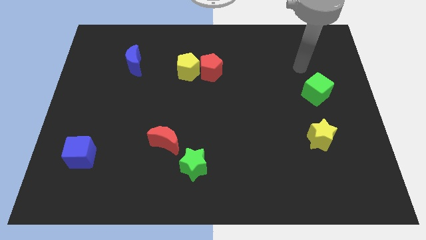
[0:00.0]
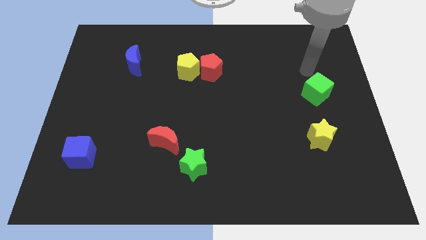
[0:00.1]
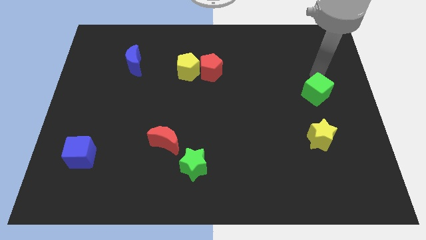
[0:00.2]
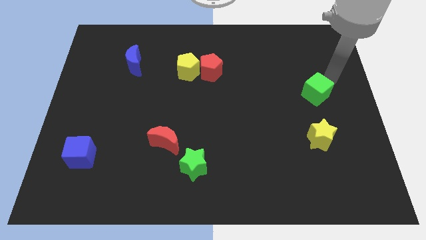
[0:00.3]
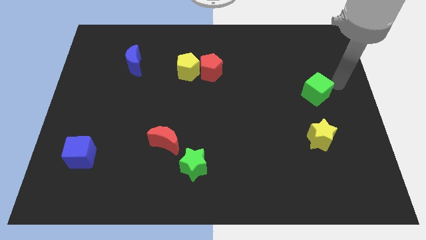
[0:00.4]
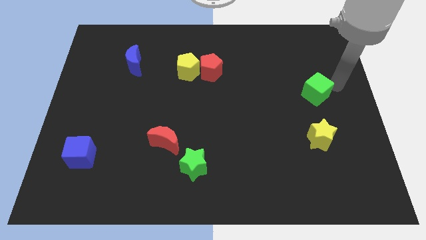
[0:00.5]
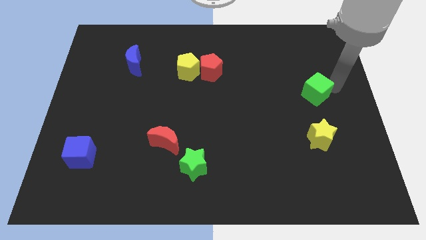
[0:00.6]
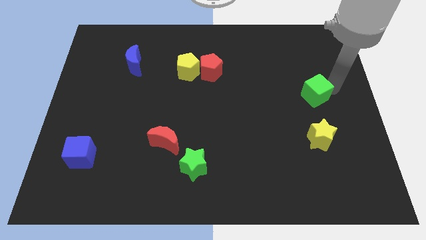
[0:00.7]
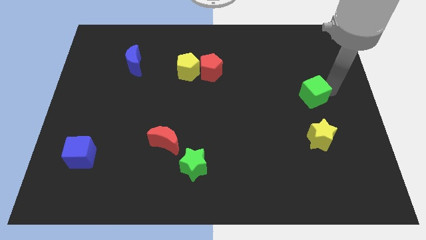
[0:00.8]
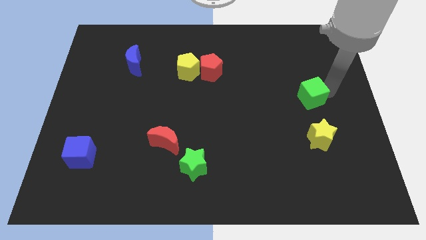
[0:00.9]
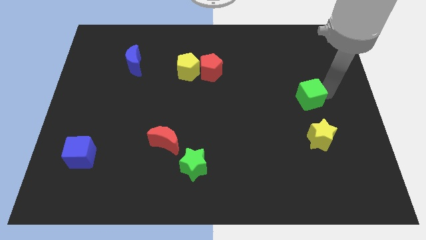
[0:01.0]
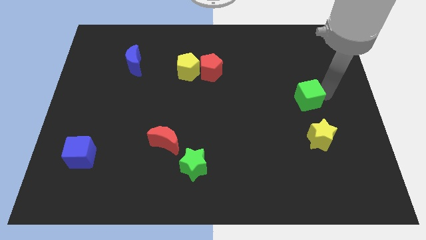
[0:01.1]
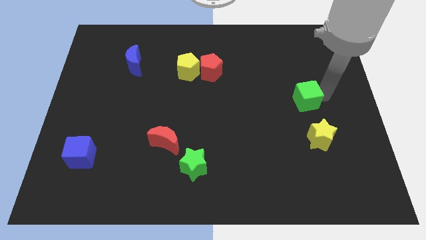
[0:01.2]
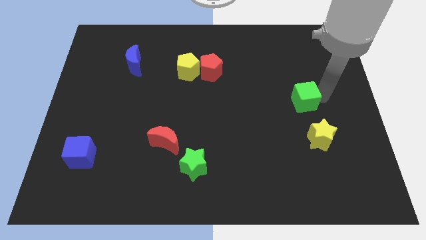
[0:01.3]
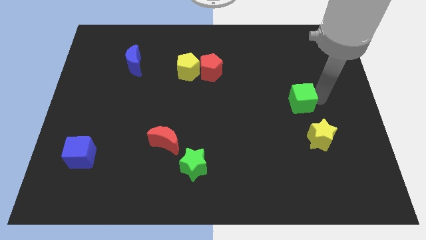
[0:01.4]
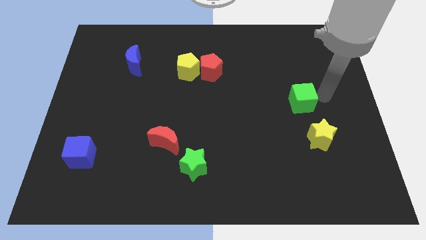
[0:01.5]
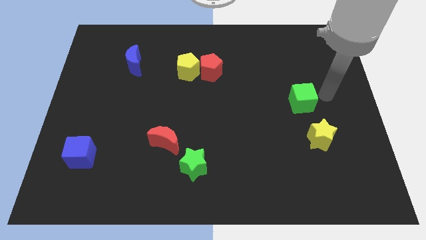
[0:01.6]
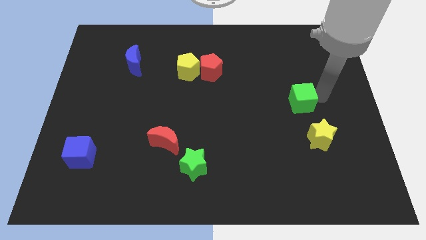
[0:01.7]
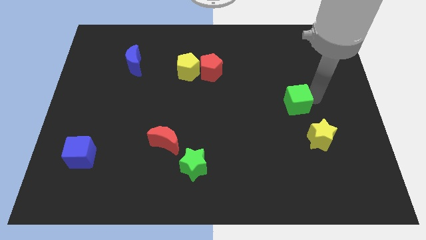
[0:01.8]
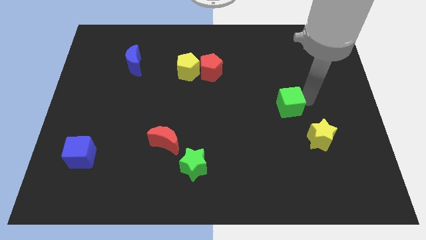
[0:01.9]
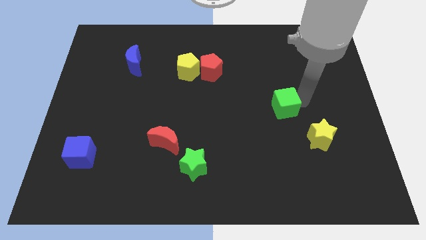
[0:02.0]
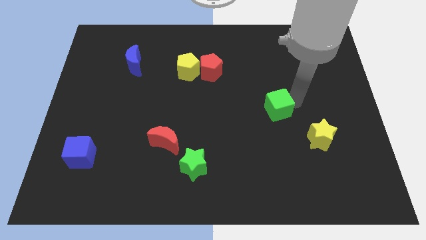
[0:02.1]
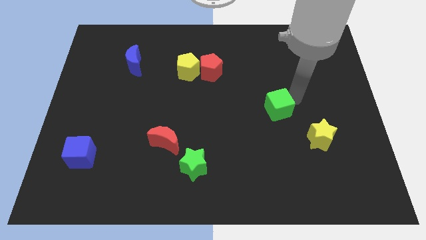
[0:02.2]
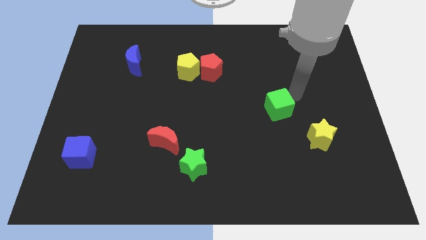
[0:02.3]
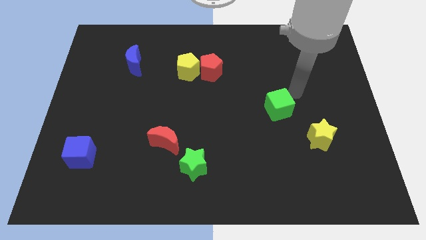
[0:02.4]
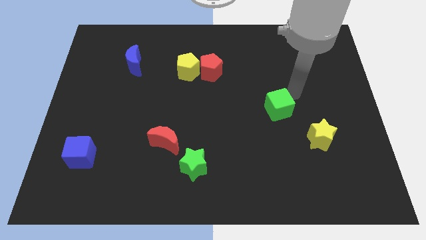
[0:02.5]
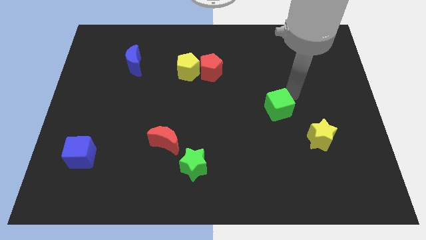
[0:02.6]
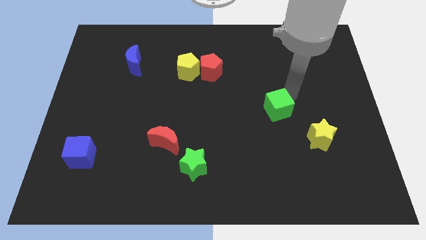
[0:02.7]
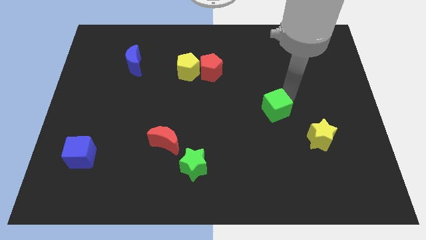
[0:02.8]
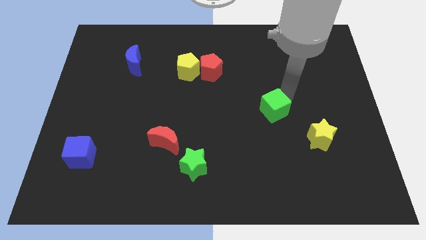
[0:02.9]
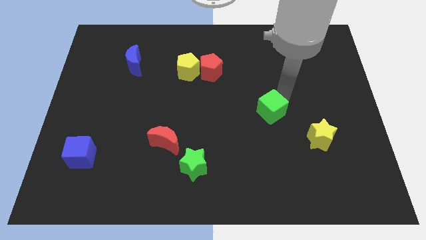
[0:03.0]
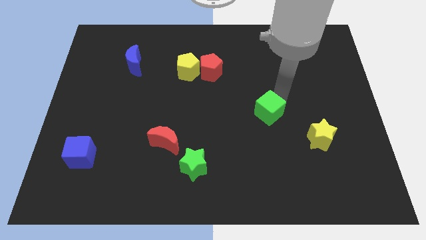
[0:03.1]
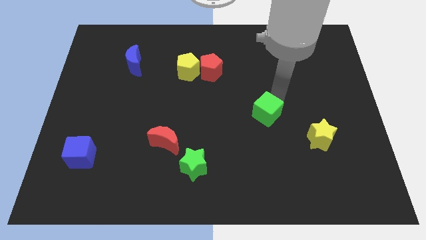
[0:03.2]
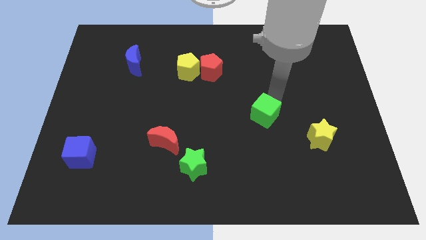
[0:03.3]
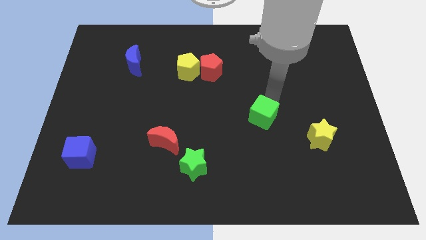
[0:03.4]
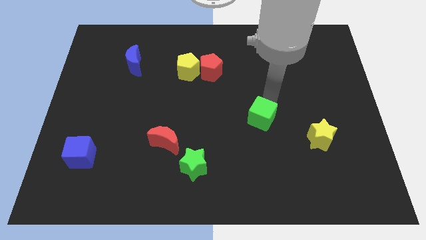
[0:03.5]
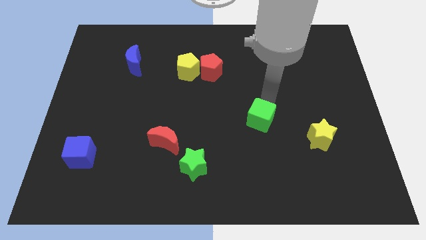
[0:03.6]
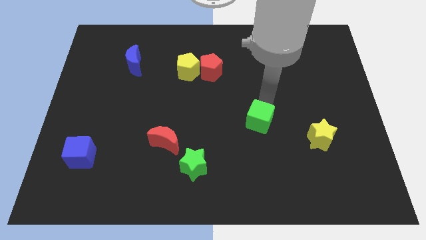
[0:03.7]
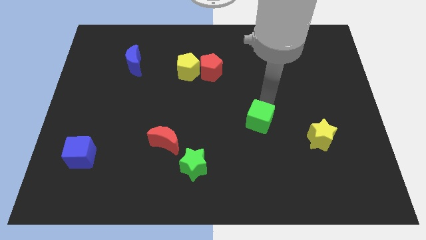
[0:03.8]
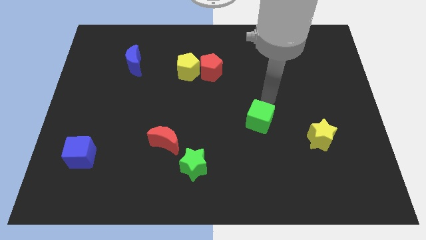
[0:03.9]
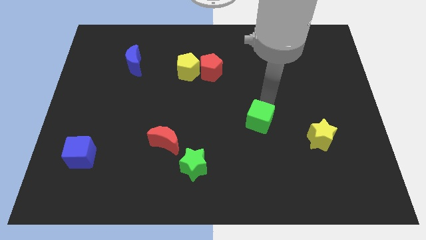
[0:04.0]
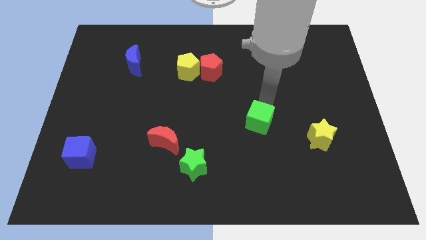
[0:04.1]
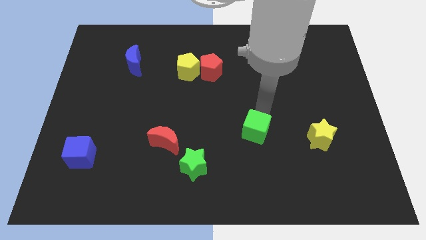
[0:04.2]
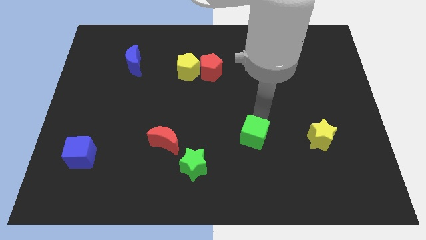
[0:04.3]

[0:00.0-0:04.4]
push the green cube down and then left

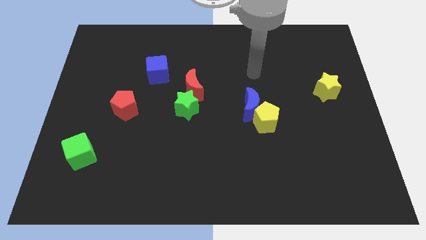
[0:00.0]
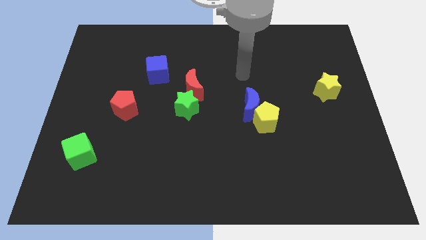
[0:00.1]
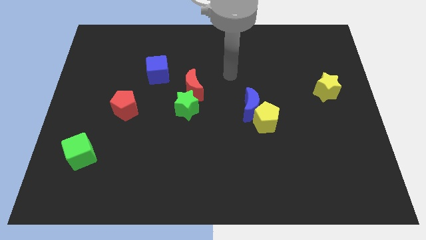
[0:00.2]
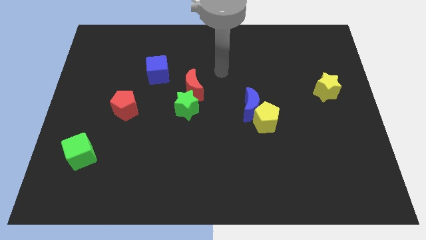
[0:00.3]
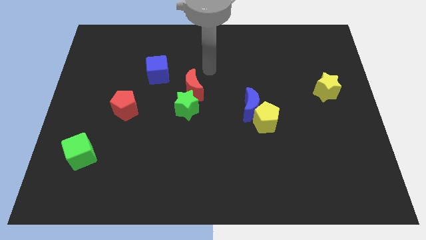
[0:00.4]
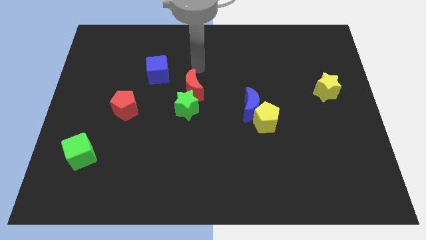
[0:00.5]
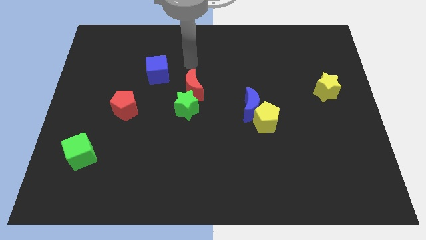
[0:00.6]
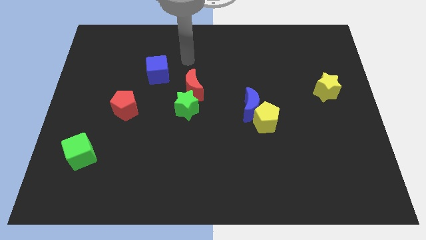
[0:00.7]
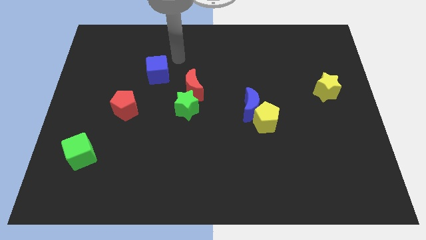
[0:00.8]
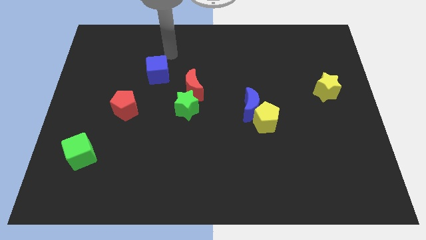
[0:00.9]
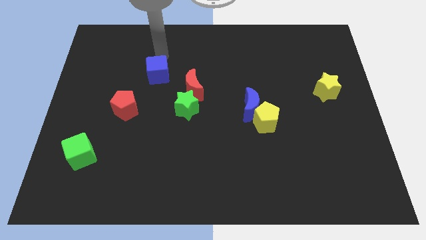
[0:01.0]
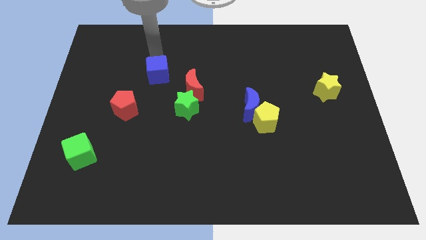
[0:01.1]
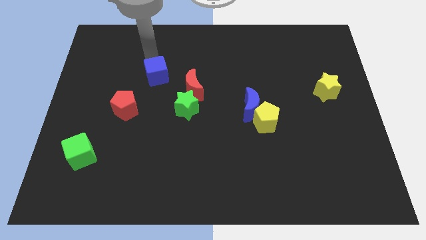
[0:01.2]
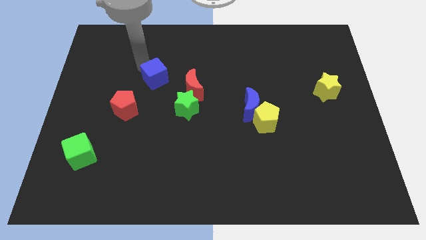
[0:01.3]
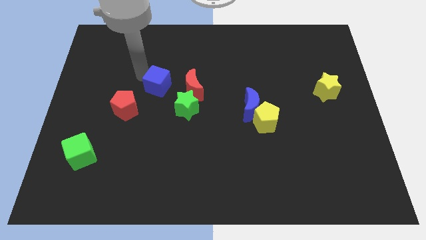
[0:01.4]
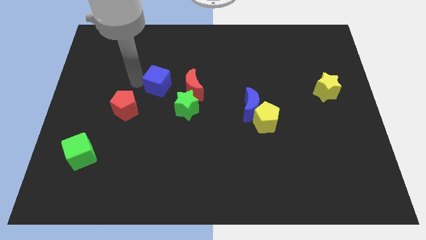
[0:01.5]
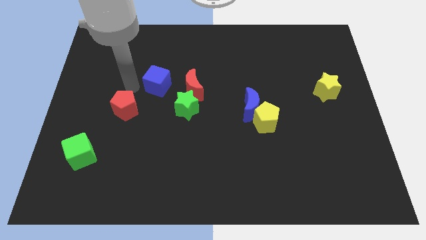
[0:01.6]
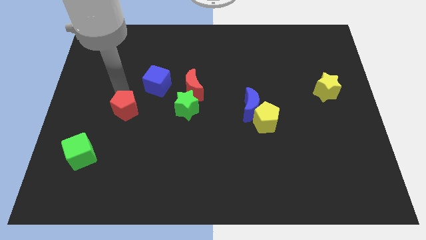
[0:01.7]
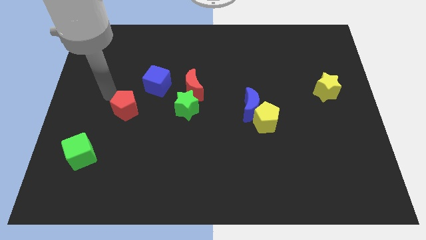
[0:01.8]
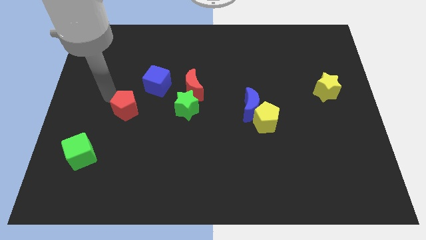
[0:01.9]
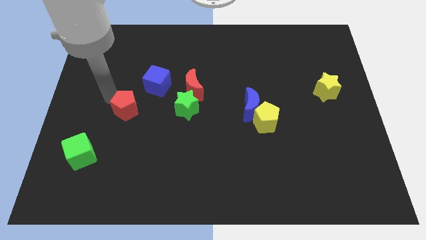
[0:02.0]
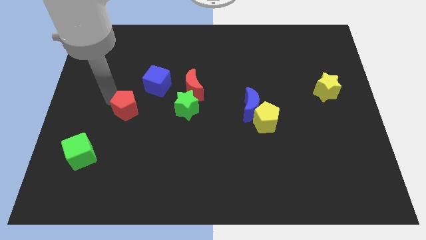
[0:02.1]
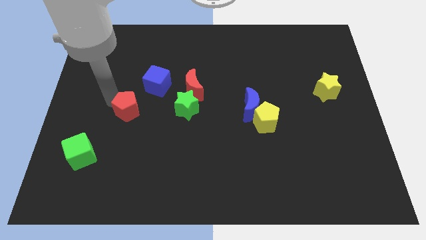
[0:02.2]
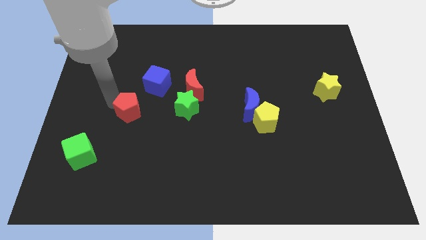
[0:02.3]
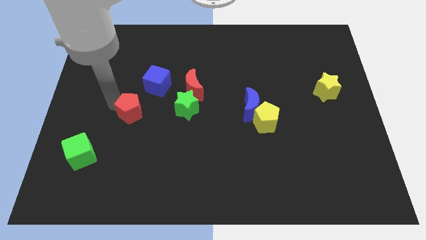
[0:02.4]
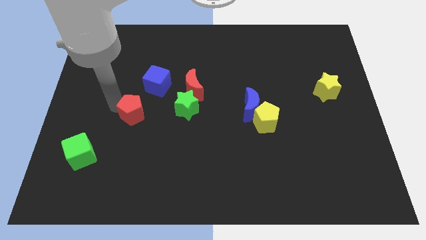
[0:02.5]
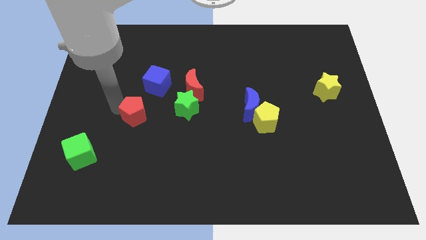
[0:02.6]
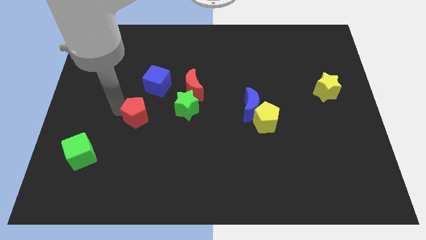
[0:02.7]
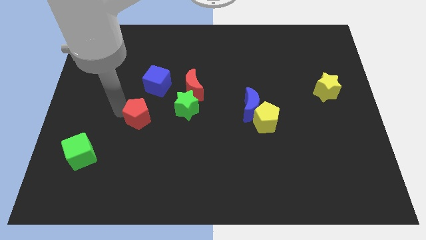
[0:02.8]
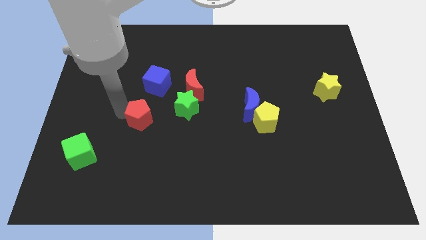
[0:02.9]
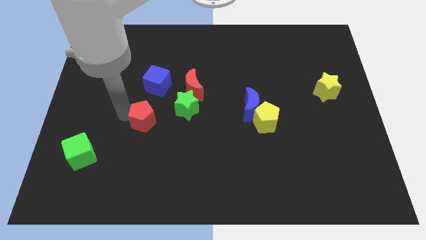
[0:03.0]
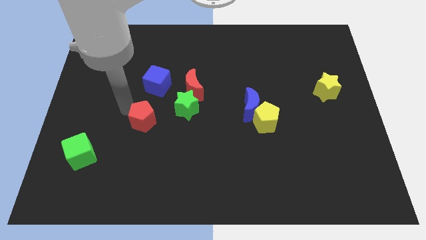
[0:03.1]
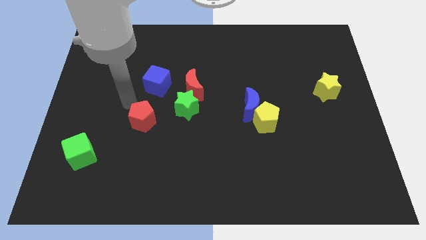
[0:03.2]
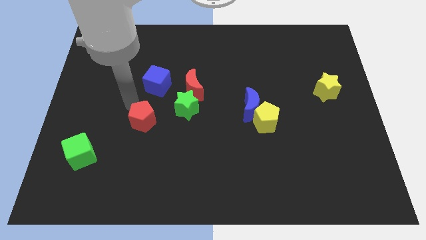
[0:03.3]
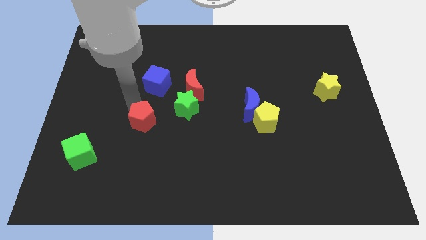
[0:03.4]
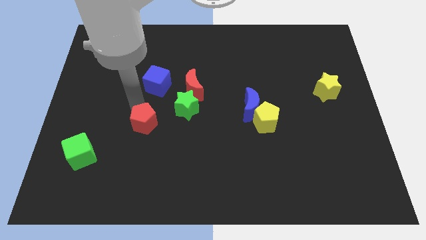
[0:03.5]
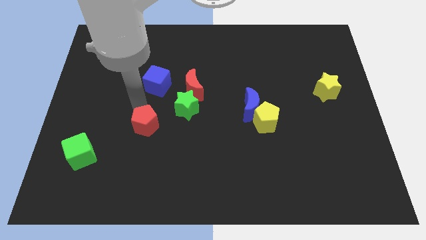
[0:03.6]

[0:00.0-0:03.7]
slide the red pentagon downwards and then right slightly

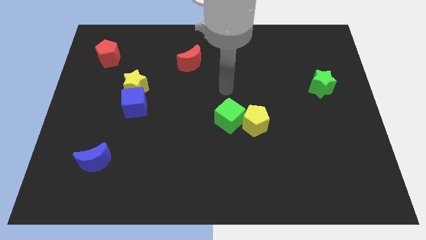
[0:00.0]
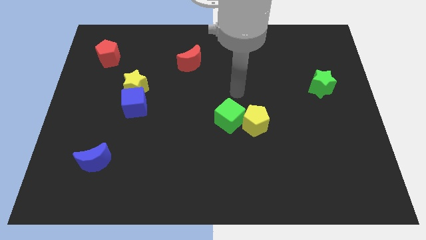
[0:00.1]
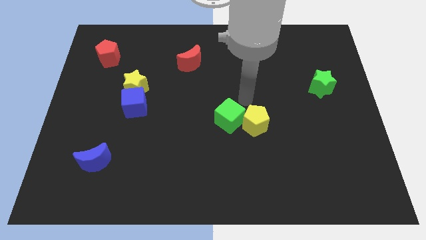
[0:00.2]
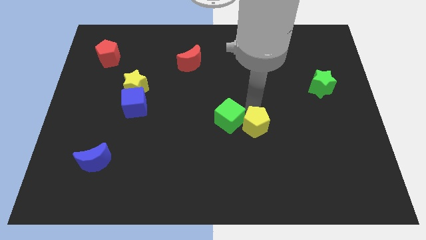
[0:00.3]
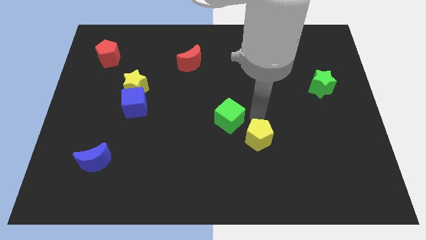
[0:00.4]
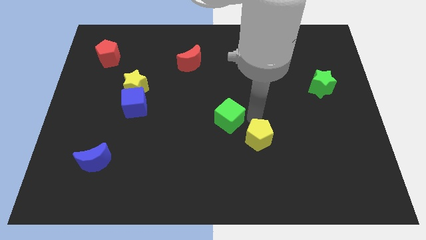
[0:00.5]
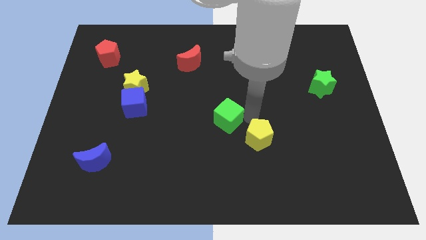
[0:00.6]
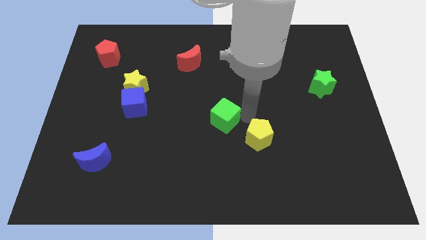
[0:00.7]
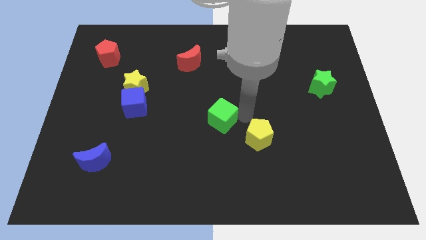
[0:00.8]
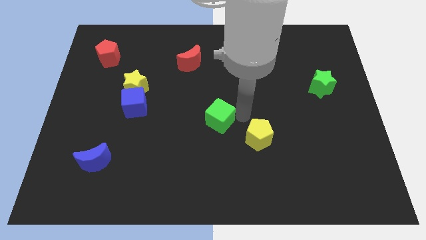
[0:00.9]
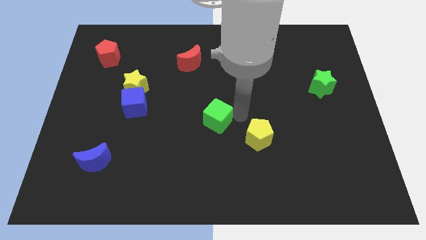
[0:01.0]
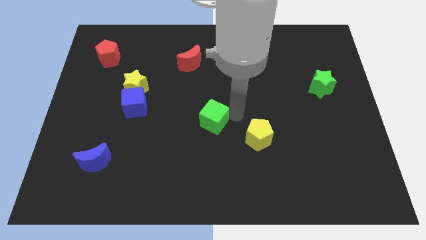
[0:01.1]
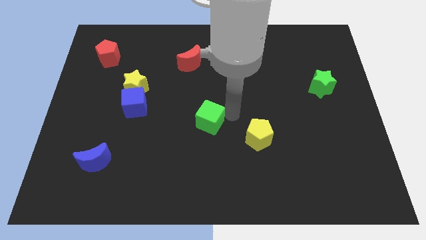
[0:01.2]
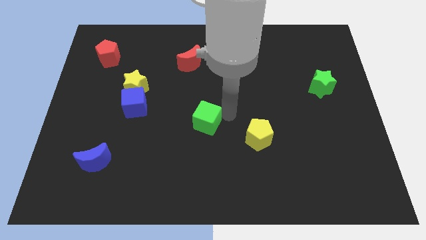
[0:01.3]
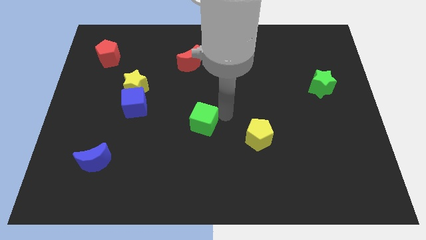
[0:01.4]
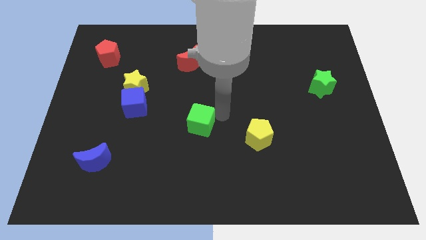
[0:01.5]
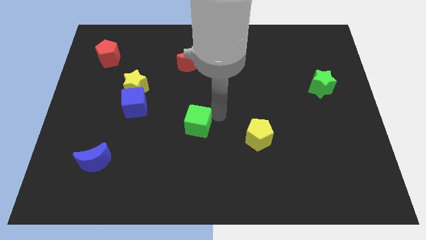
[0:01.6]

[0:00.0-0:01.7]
push the green cube to the left a bit
